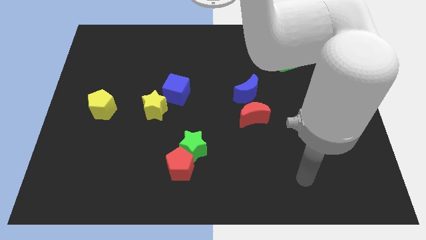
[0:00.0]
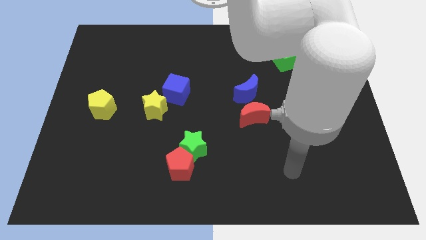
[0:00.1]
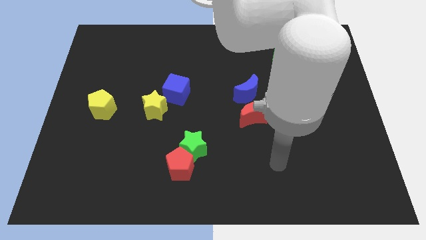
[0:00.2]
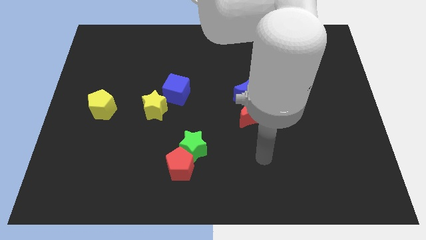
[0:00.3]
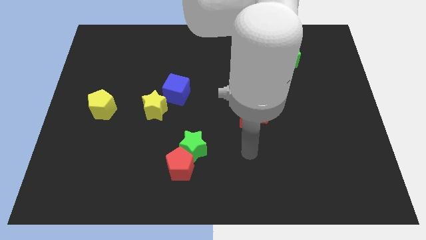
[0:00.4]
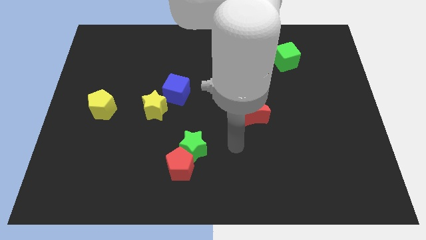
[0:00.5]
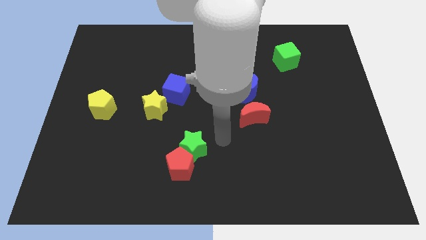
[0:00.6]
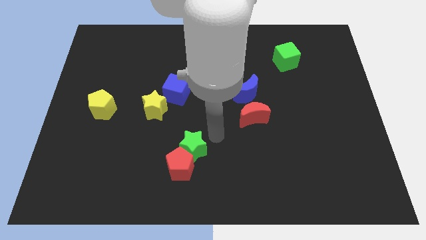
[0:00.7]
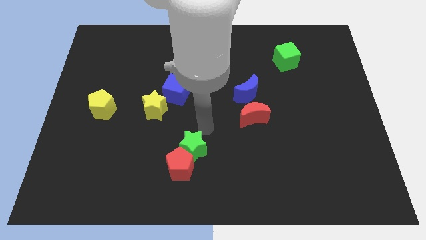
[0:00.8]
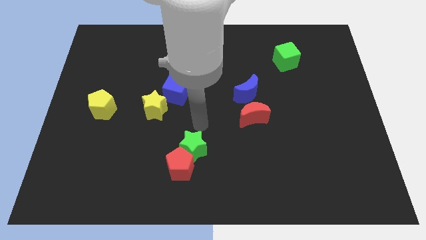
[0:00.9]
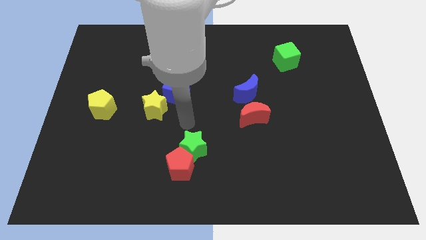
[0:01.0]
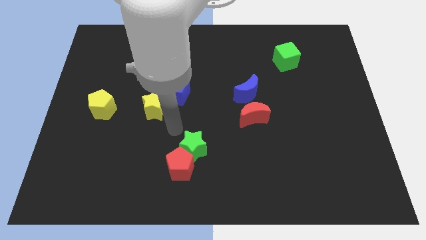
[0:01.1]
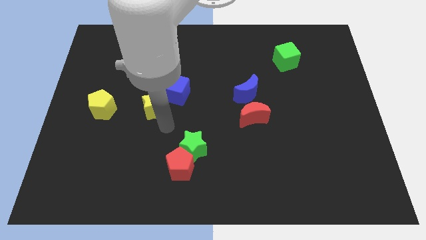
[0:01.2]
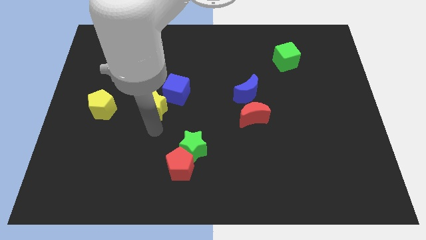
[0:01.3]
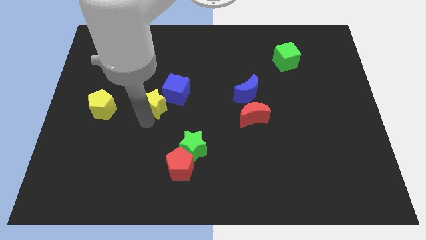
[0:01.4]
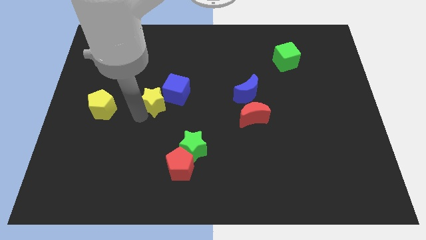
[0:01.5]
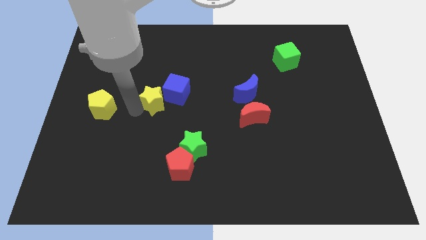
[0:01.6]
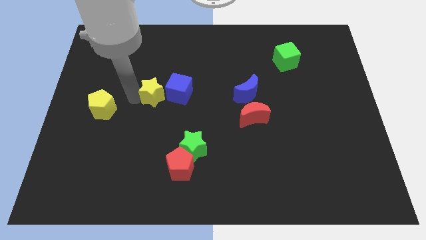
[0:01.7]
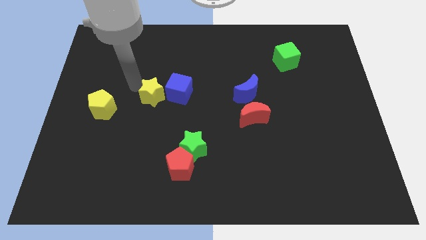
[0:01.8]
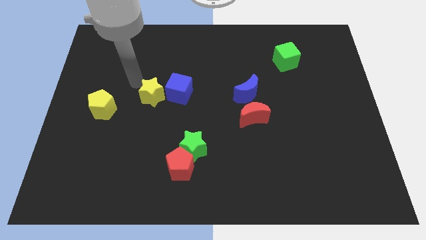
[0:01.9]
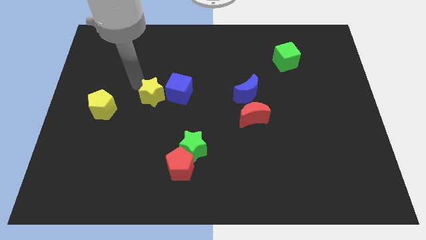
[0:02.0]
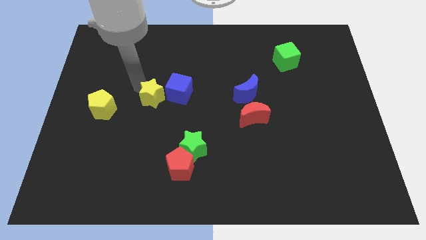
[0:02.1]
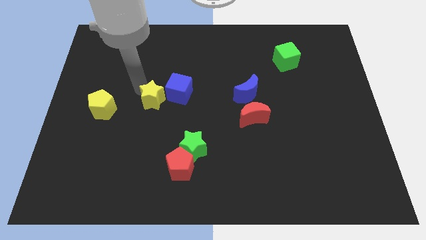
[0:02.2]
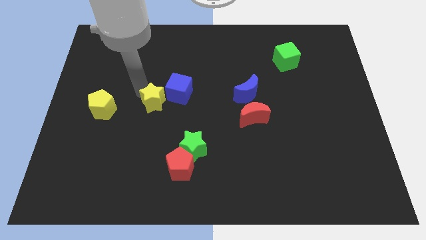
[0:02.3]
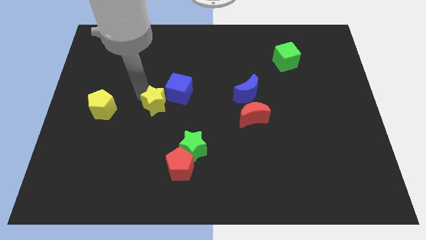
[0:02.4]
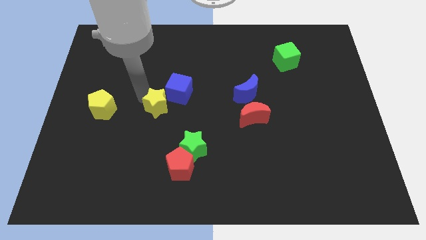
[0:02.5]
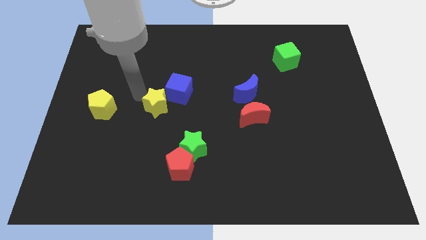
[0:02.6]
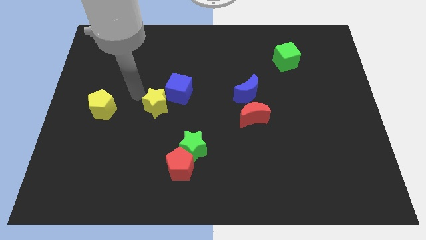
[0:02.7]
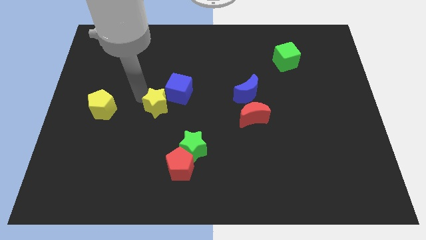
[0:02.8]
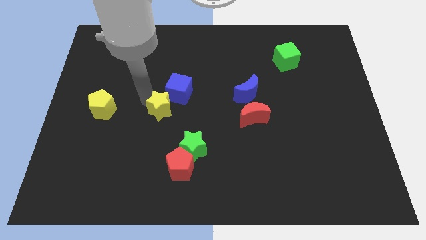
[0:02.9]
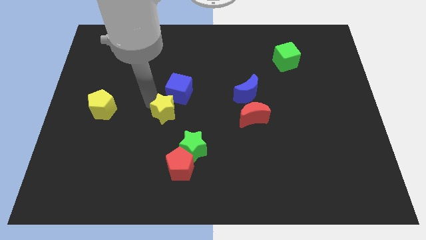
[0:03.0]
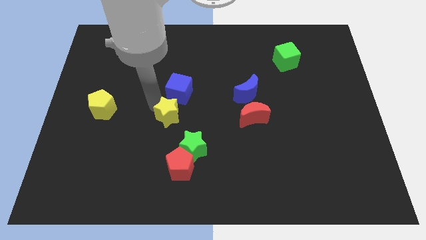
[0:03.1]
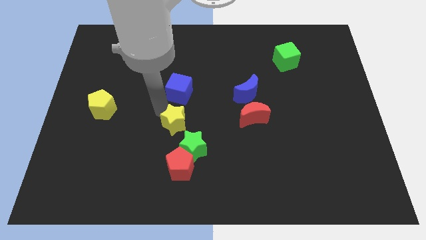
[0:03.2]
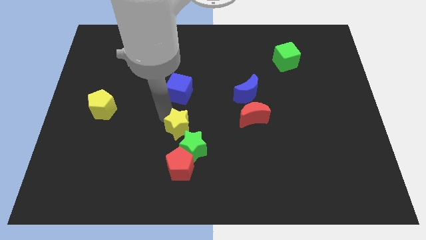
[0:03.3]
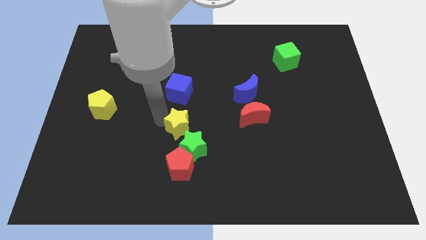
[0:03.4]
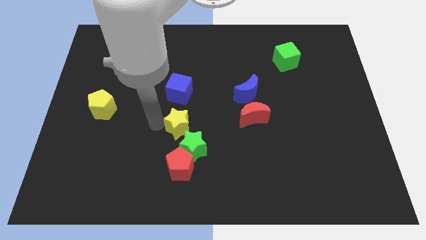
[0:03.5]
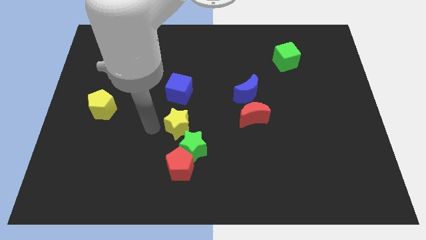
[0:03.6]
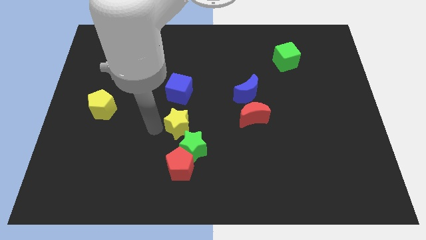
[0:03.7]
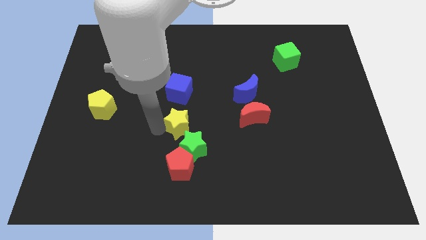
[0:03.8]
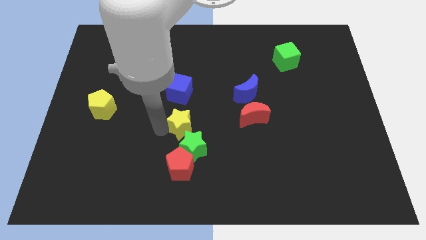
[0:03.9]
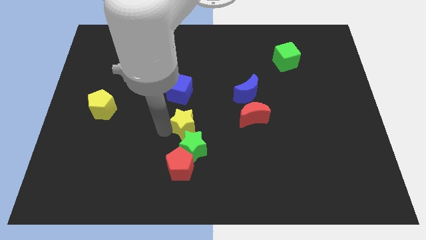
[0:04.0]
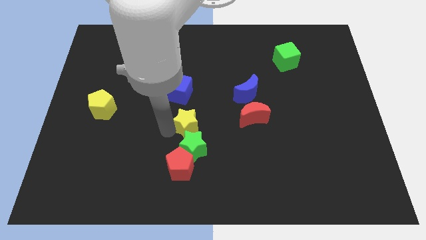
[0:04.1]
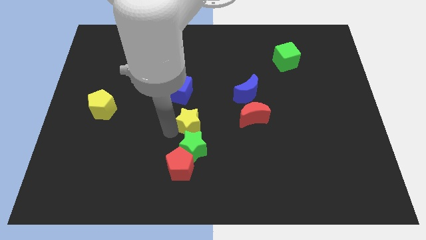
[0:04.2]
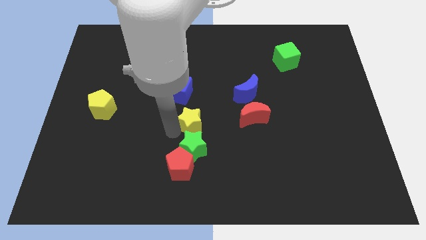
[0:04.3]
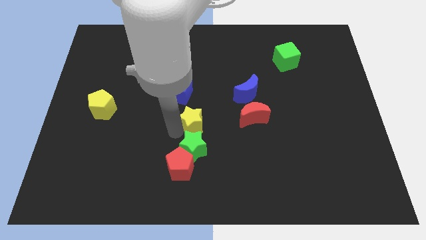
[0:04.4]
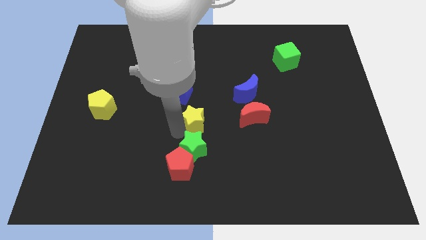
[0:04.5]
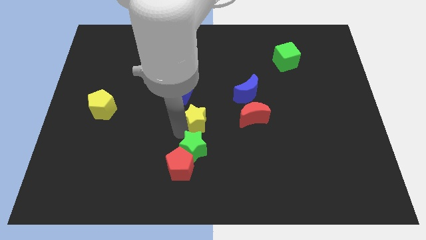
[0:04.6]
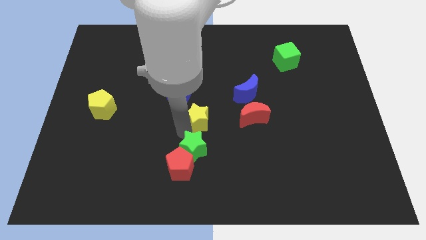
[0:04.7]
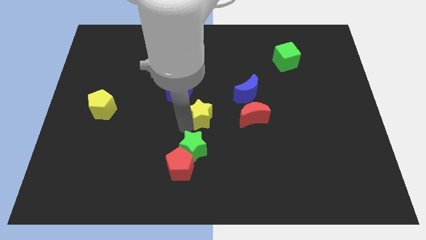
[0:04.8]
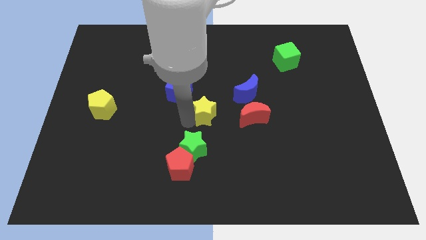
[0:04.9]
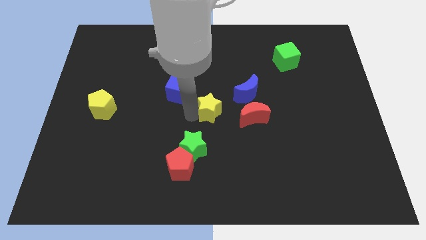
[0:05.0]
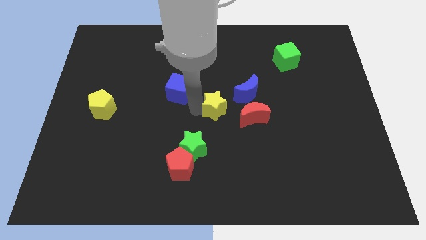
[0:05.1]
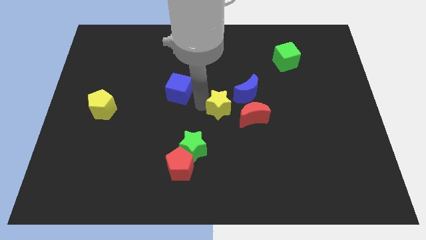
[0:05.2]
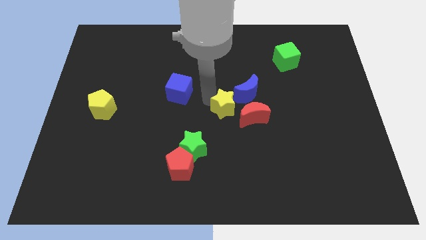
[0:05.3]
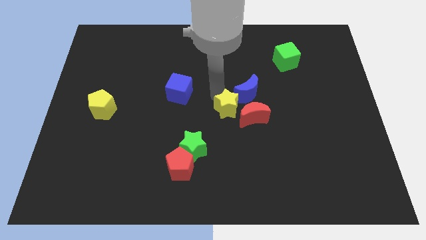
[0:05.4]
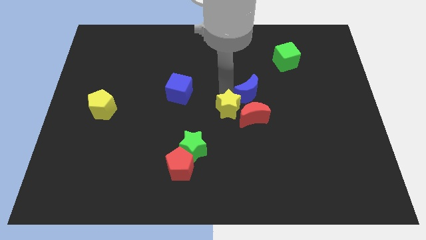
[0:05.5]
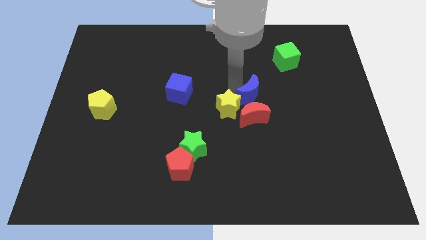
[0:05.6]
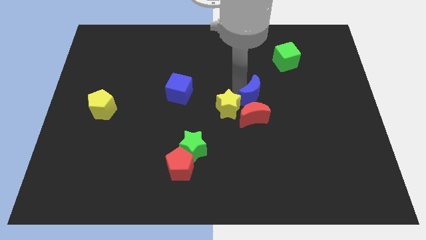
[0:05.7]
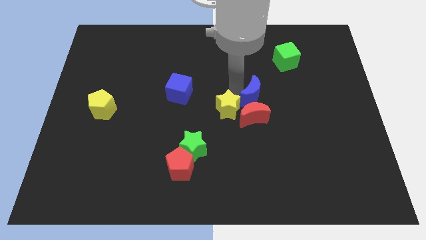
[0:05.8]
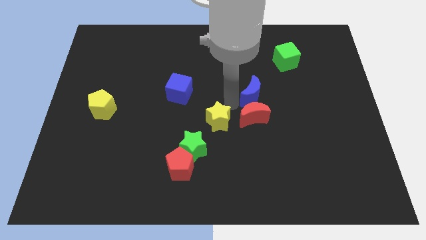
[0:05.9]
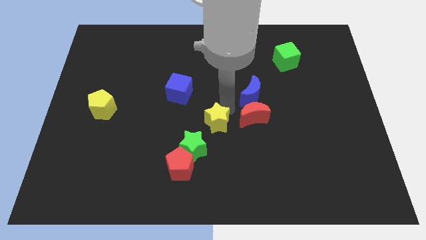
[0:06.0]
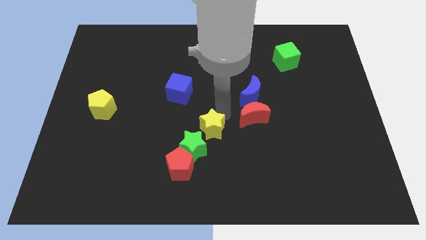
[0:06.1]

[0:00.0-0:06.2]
slide the yellow star to the top right side of the red pentagon

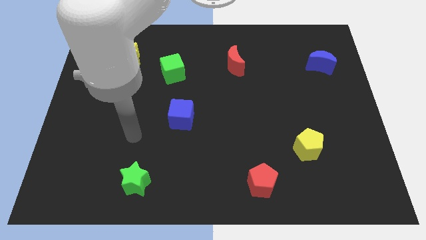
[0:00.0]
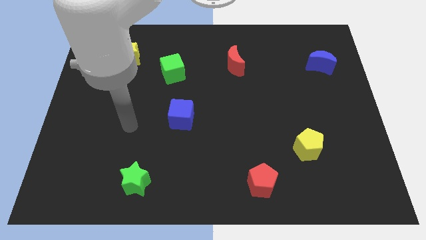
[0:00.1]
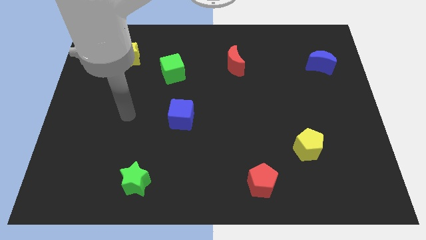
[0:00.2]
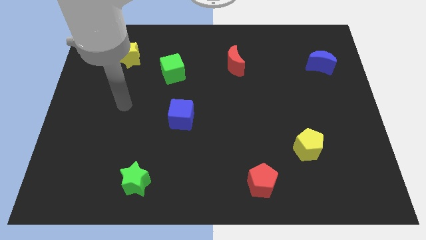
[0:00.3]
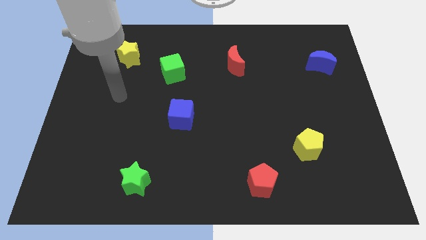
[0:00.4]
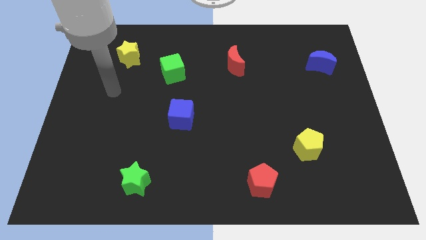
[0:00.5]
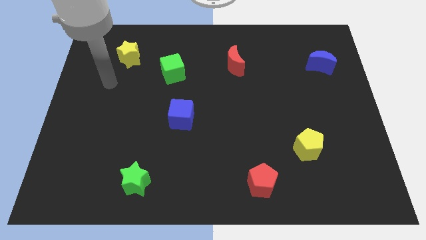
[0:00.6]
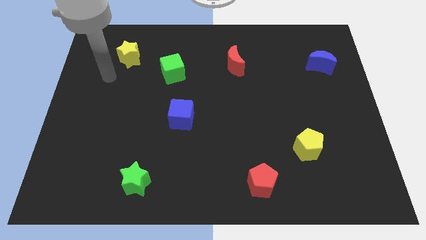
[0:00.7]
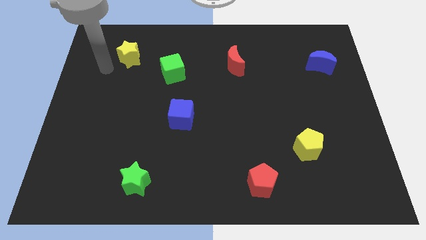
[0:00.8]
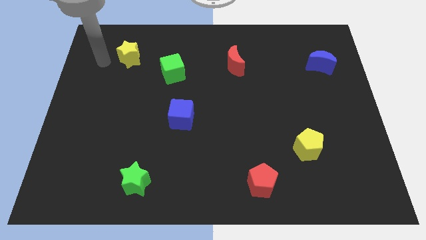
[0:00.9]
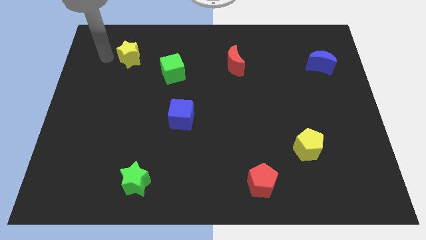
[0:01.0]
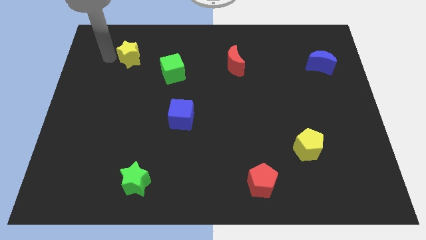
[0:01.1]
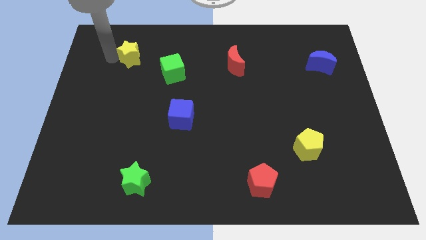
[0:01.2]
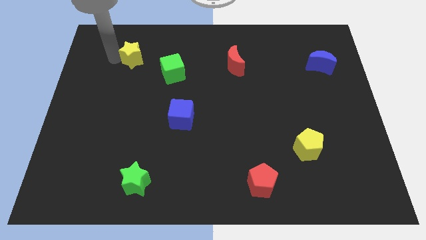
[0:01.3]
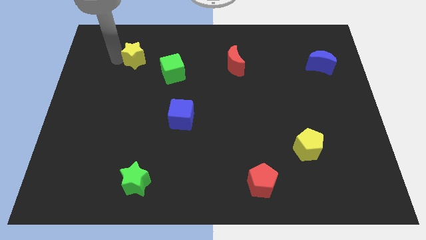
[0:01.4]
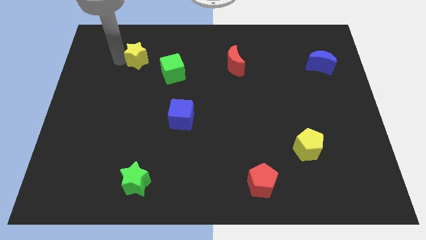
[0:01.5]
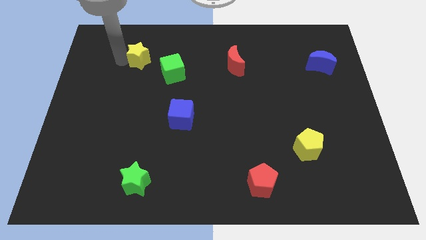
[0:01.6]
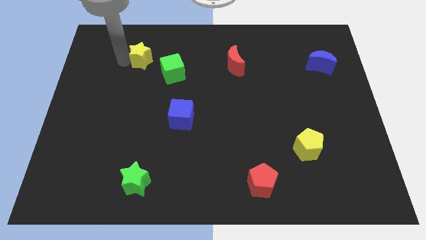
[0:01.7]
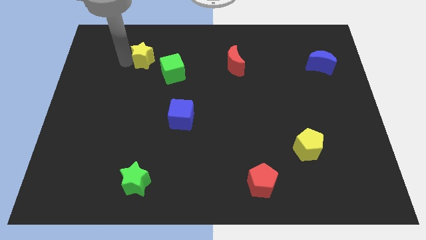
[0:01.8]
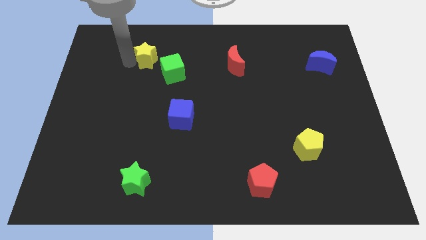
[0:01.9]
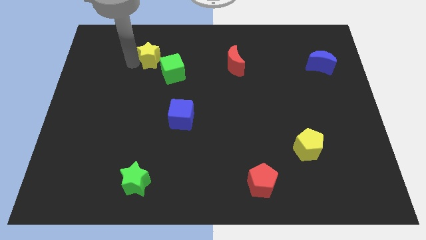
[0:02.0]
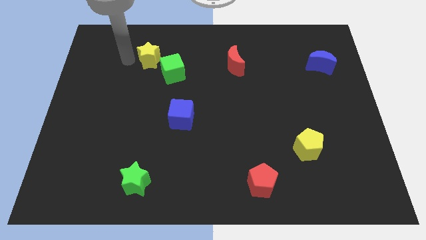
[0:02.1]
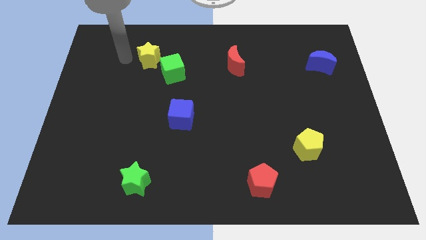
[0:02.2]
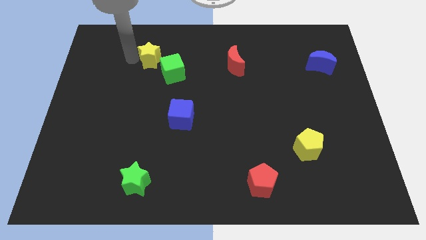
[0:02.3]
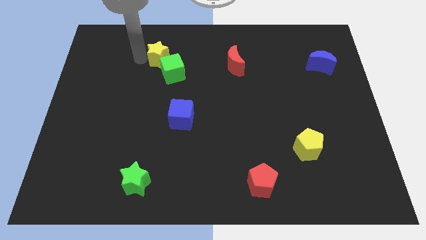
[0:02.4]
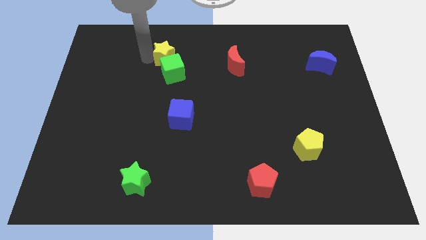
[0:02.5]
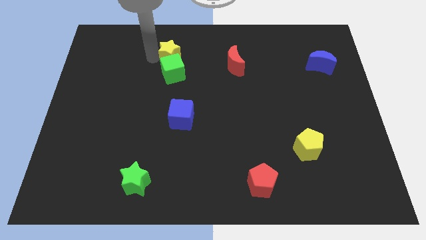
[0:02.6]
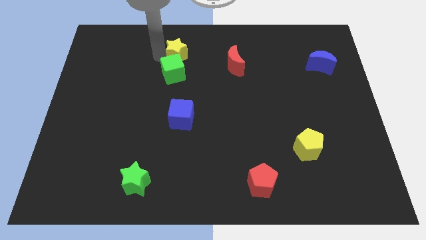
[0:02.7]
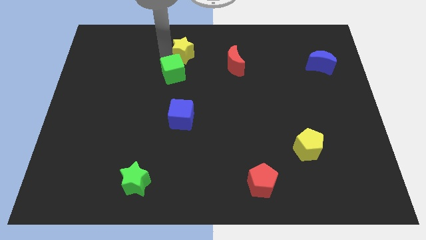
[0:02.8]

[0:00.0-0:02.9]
slide the yellow star to the left of the red moon
